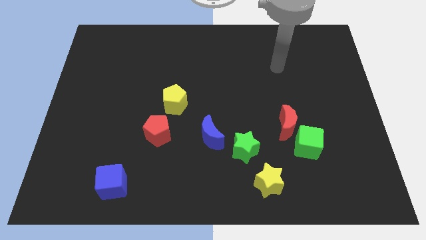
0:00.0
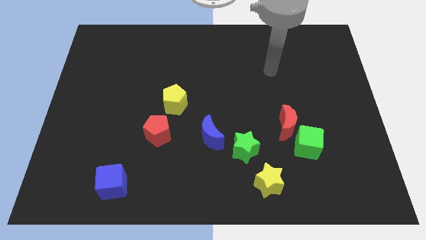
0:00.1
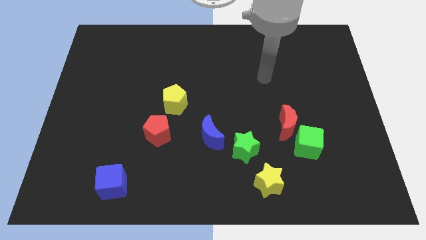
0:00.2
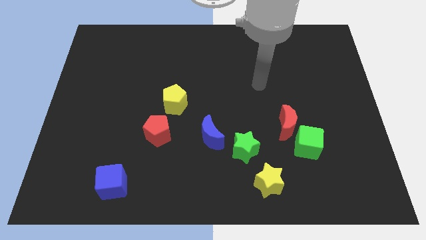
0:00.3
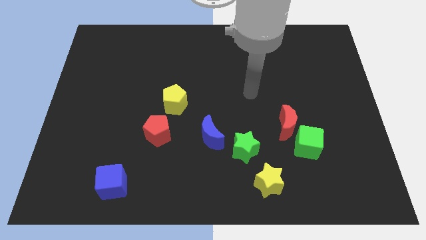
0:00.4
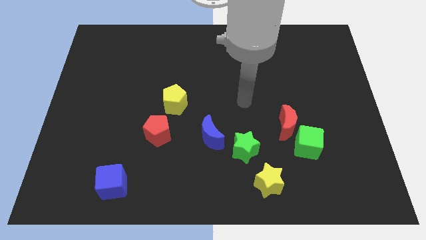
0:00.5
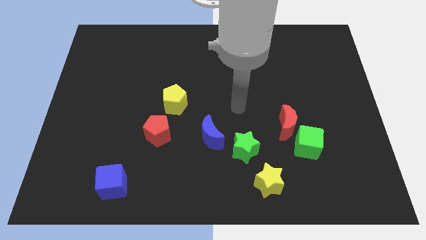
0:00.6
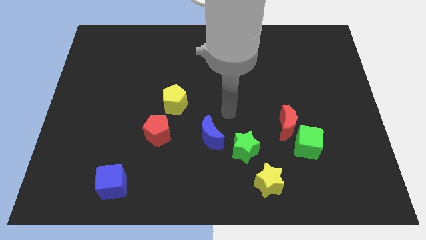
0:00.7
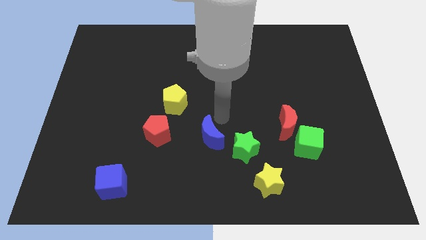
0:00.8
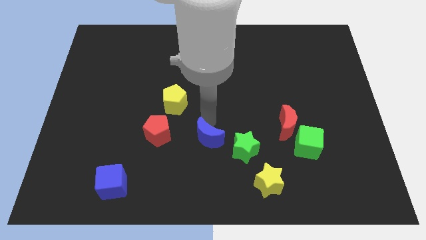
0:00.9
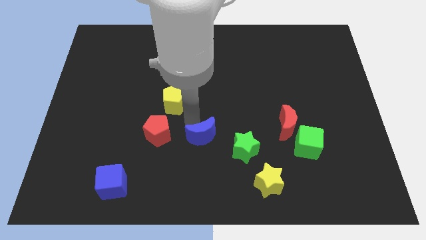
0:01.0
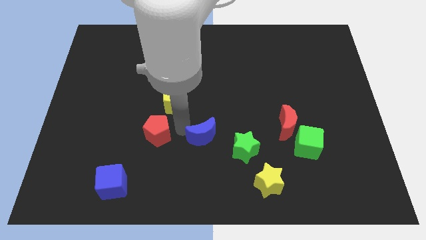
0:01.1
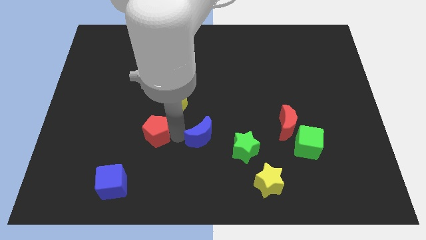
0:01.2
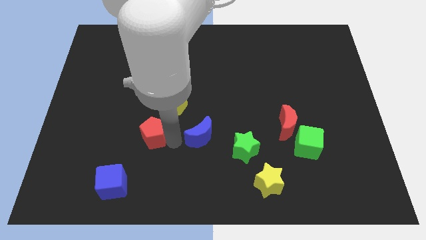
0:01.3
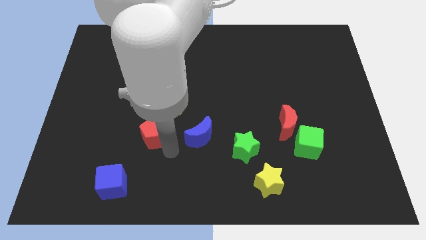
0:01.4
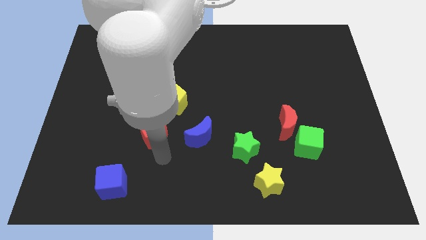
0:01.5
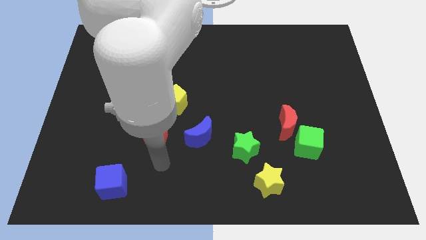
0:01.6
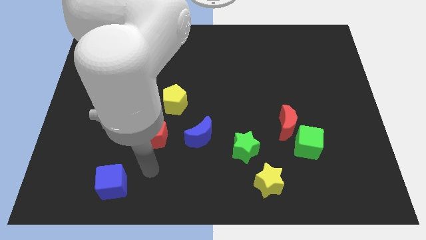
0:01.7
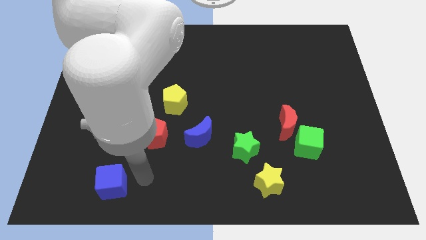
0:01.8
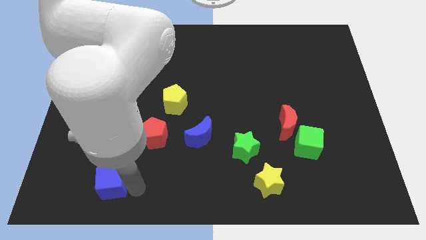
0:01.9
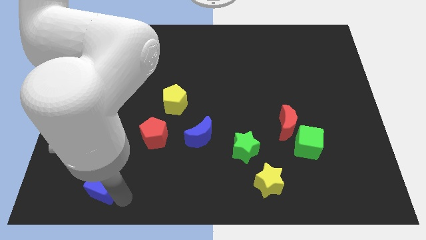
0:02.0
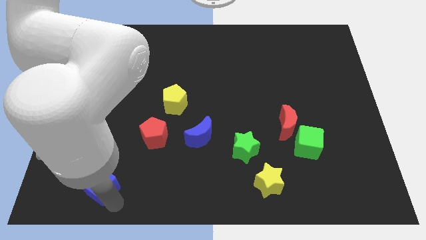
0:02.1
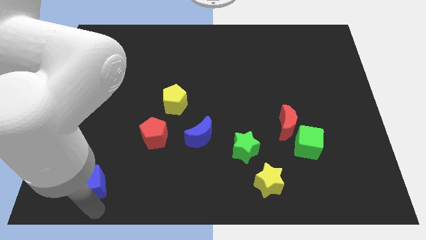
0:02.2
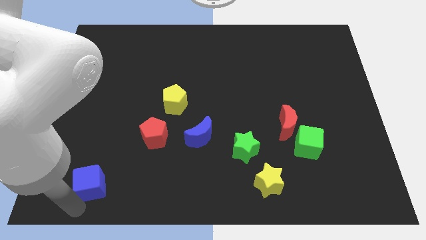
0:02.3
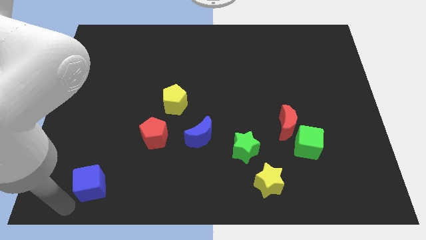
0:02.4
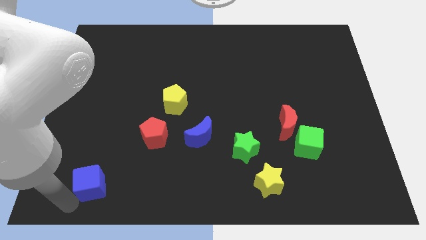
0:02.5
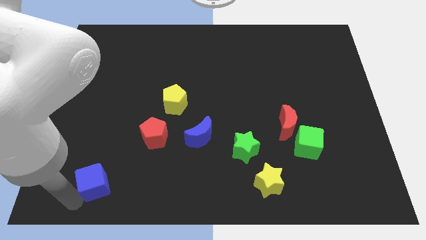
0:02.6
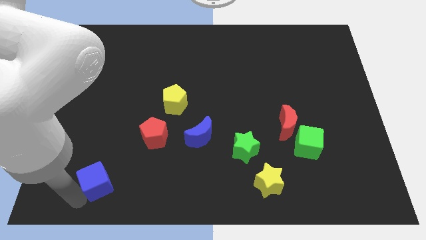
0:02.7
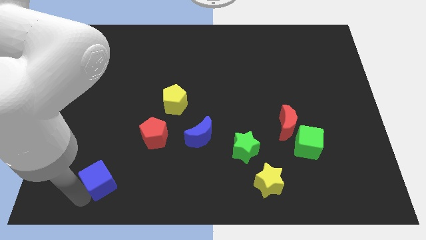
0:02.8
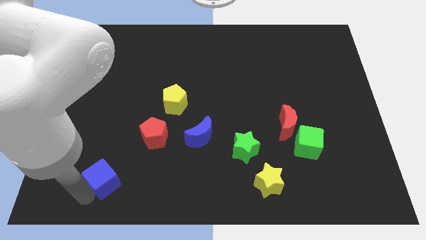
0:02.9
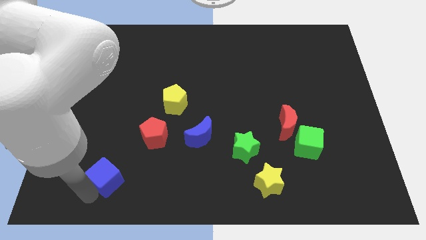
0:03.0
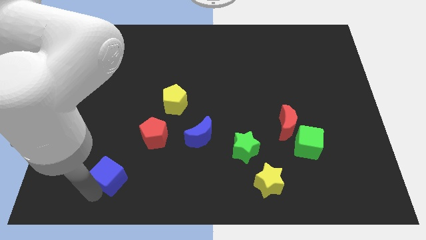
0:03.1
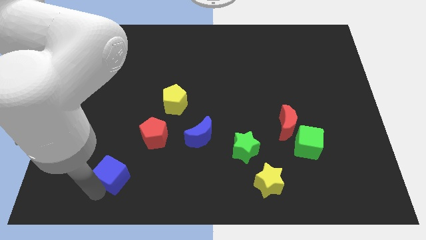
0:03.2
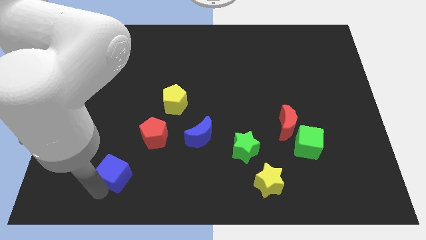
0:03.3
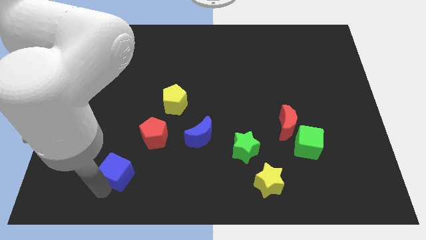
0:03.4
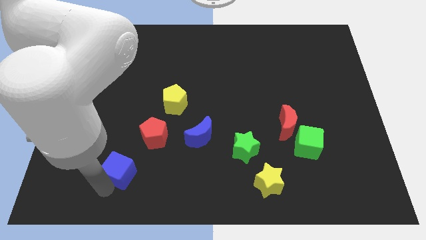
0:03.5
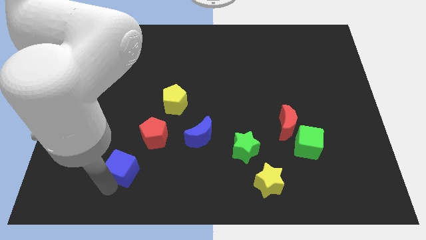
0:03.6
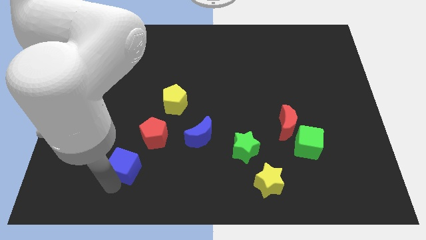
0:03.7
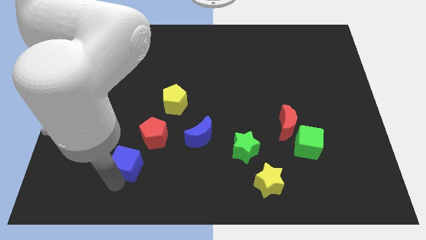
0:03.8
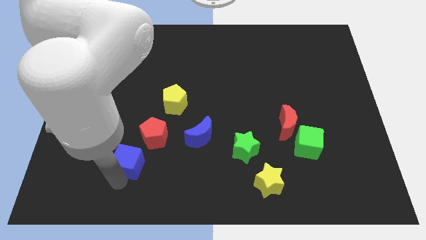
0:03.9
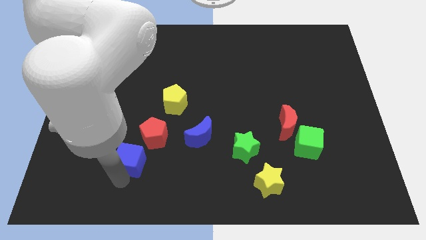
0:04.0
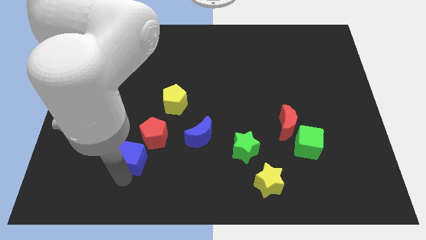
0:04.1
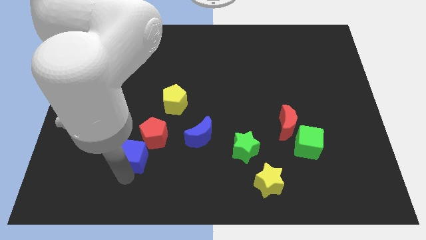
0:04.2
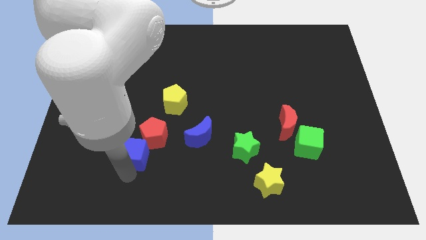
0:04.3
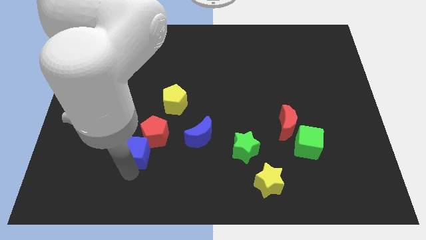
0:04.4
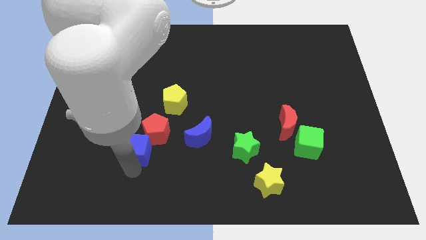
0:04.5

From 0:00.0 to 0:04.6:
slide the blue cube upwards a little

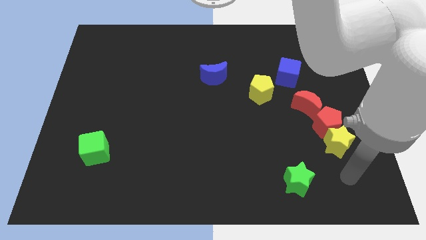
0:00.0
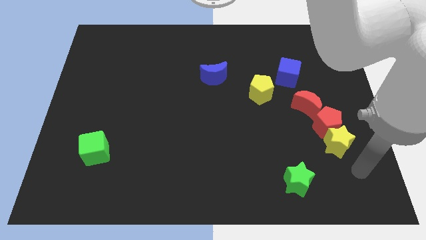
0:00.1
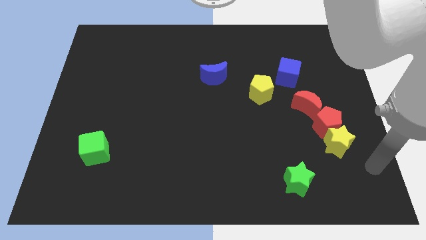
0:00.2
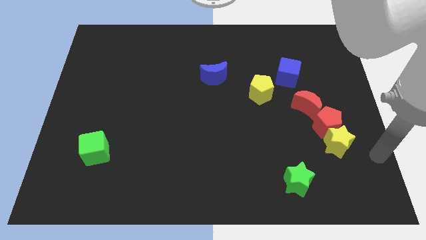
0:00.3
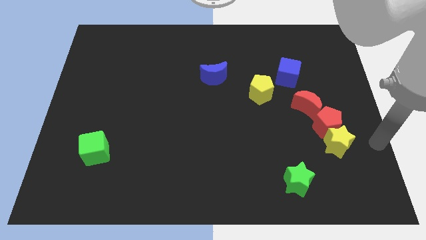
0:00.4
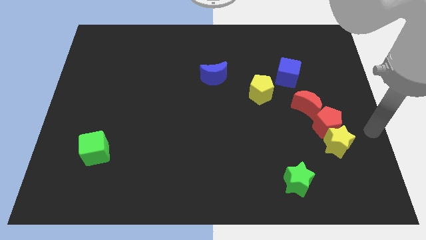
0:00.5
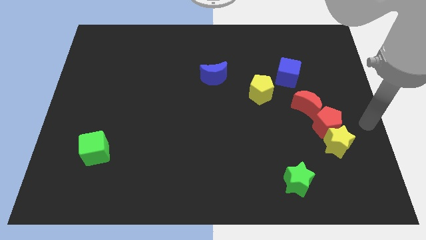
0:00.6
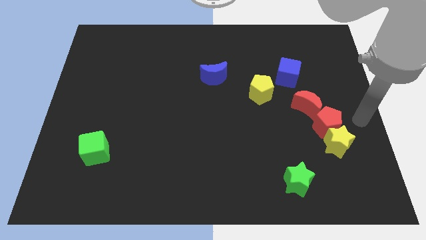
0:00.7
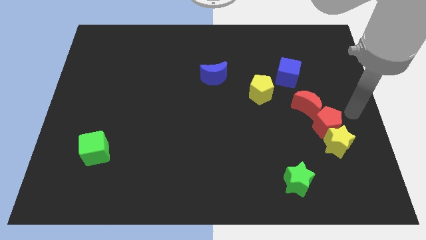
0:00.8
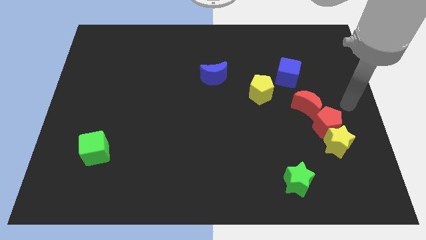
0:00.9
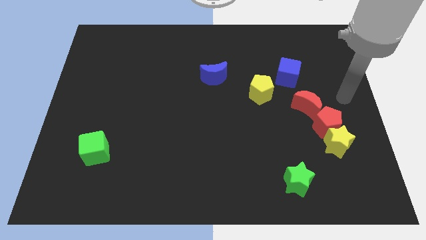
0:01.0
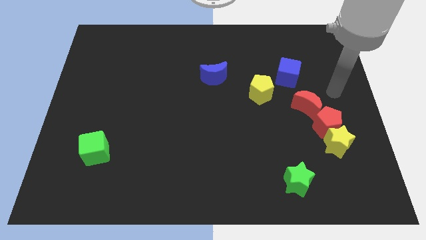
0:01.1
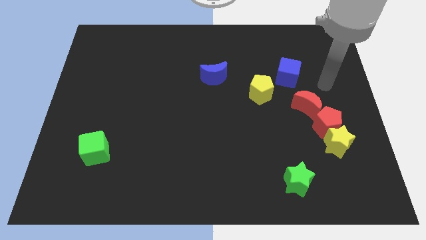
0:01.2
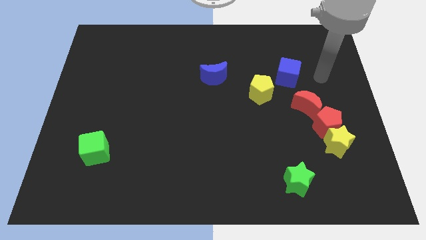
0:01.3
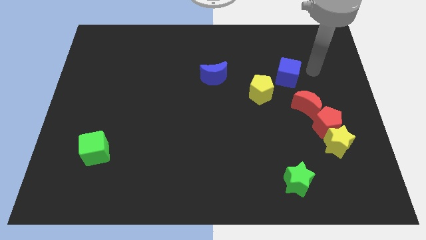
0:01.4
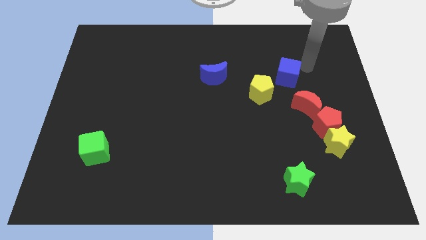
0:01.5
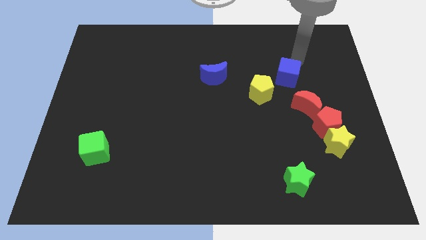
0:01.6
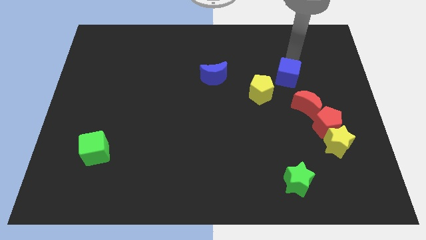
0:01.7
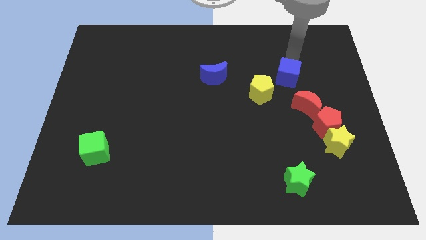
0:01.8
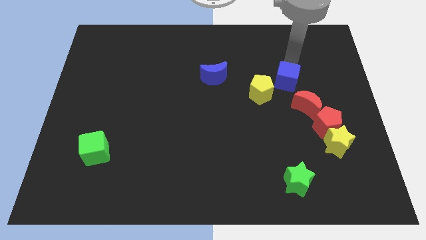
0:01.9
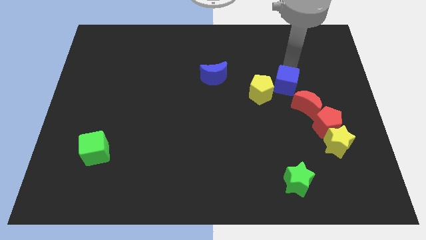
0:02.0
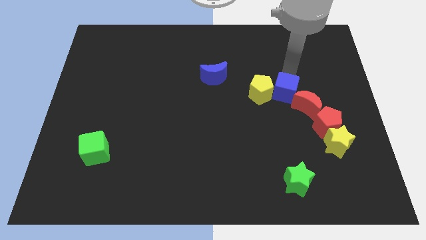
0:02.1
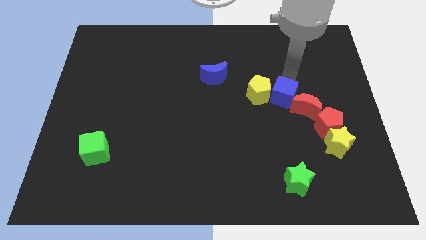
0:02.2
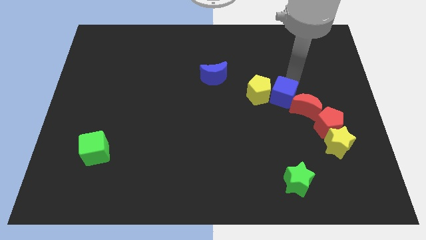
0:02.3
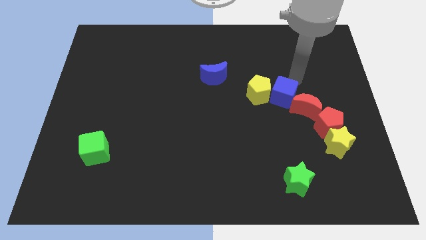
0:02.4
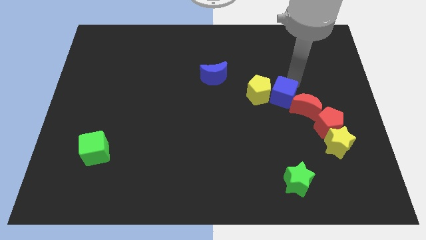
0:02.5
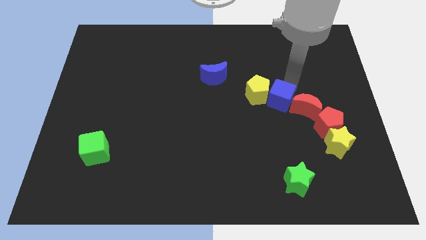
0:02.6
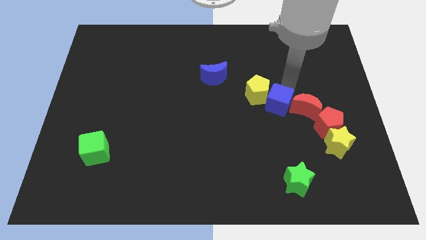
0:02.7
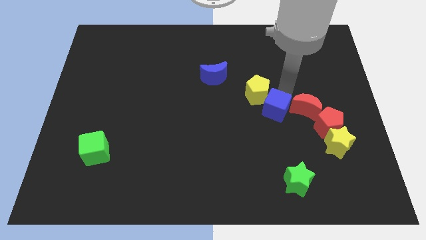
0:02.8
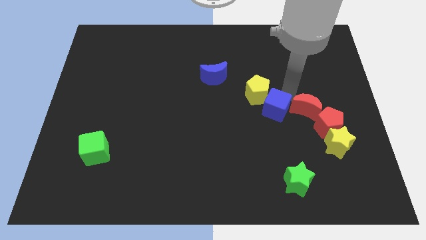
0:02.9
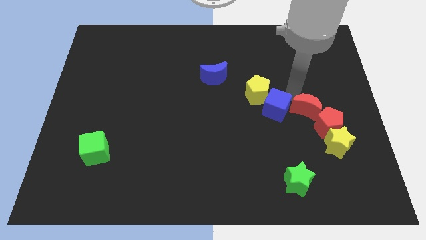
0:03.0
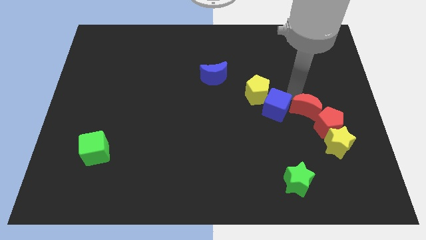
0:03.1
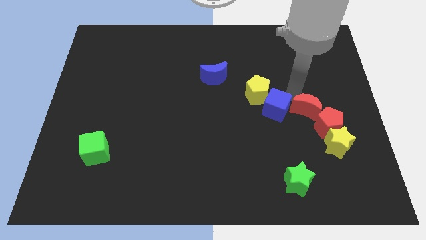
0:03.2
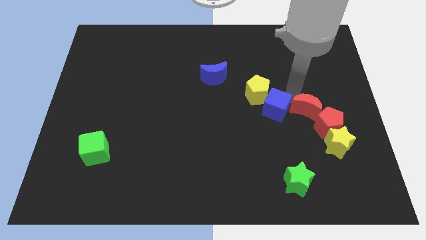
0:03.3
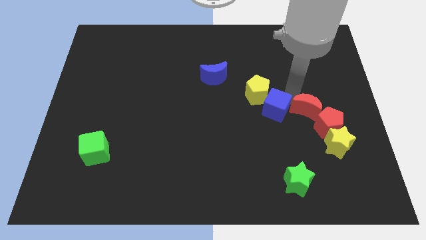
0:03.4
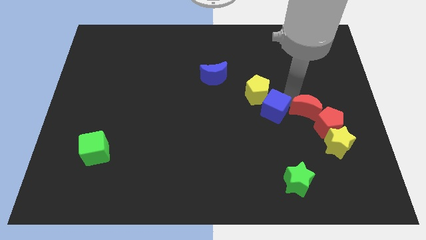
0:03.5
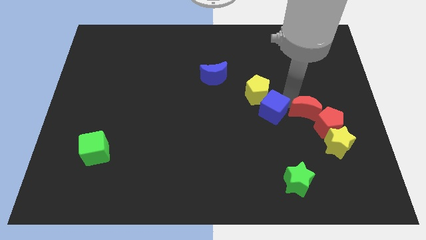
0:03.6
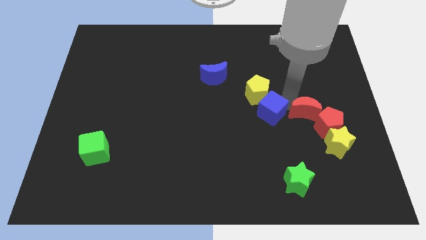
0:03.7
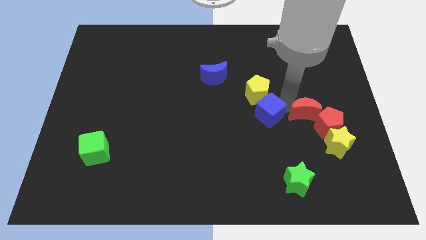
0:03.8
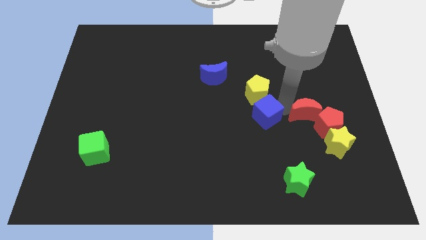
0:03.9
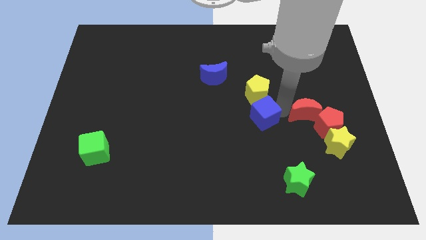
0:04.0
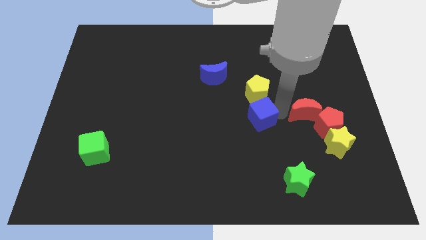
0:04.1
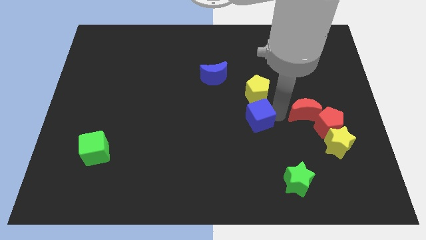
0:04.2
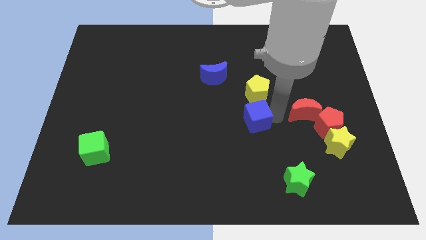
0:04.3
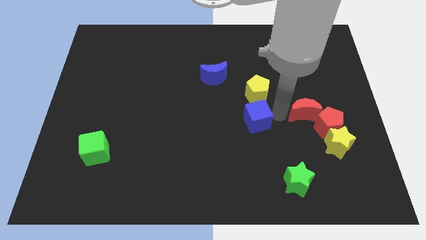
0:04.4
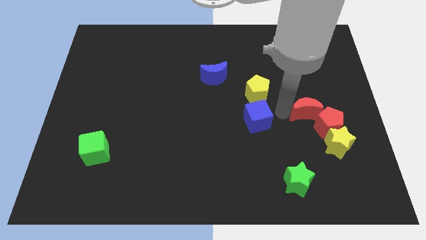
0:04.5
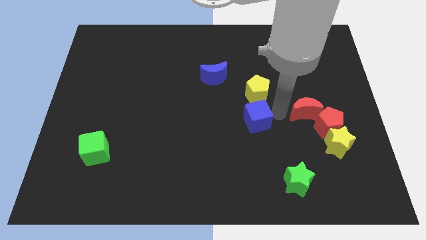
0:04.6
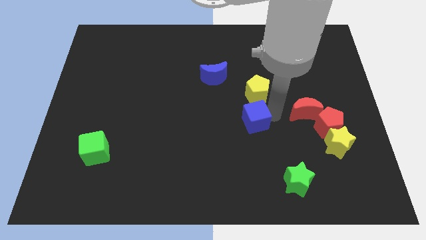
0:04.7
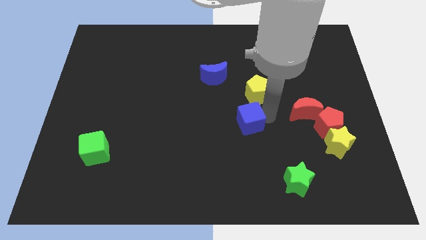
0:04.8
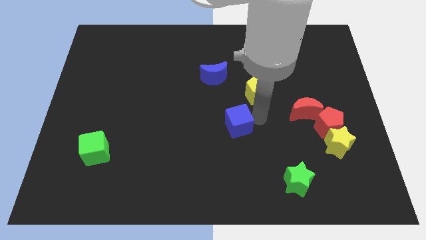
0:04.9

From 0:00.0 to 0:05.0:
slide the blue cube diagonally down and to the left
